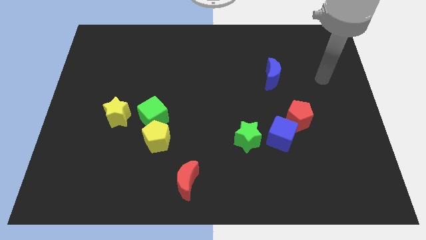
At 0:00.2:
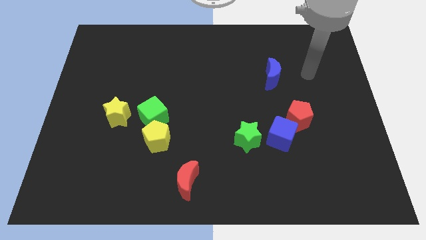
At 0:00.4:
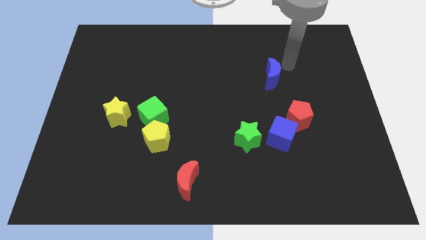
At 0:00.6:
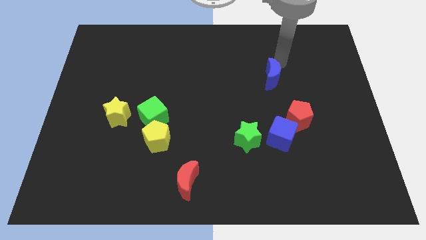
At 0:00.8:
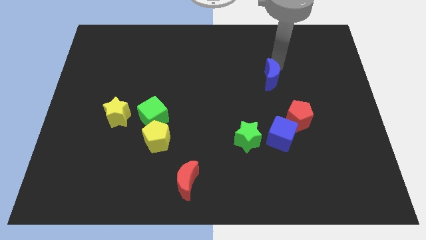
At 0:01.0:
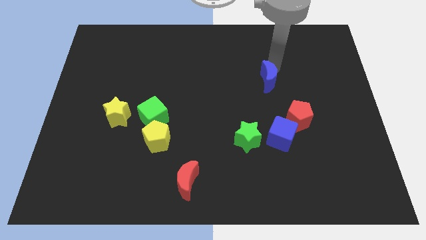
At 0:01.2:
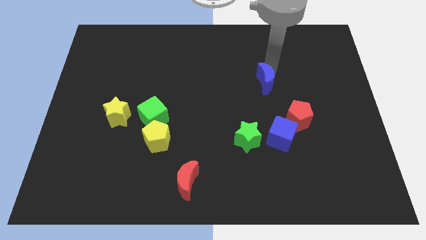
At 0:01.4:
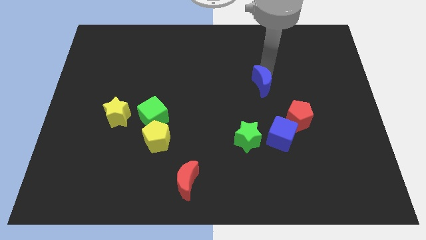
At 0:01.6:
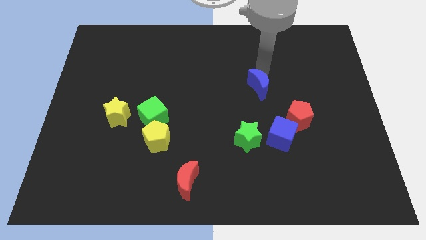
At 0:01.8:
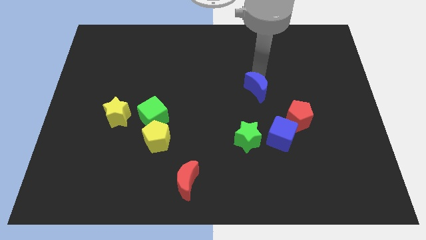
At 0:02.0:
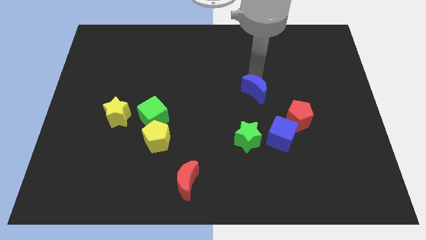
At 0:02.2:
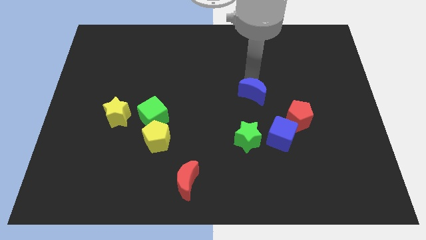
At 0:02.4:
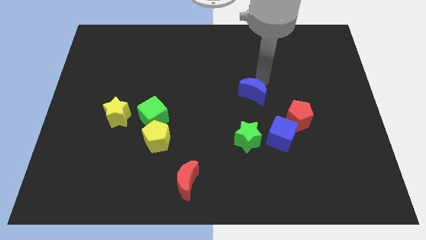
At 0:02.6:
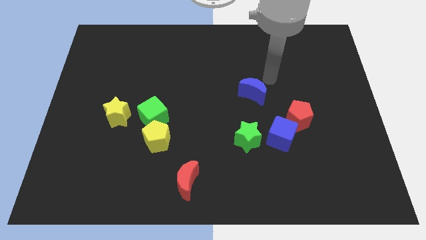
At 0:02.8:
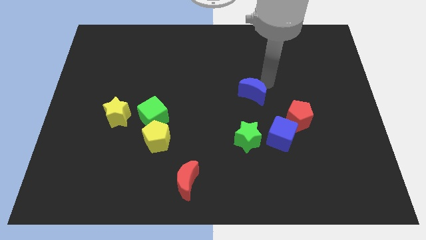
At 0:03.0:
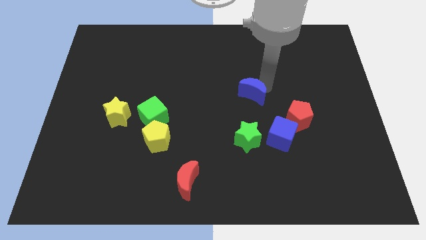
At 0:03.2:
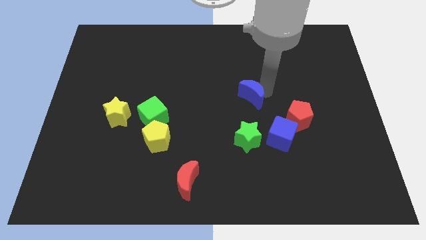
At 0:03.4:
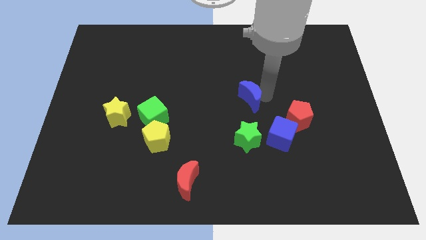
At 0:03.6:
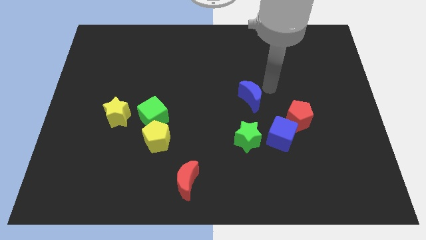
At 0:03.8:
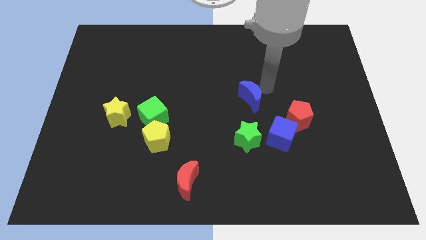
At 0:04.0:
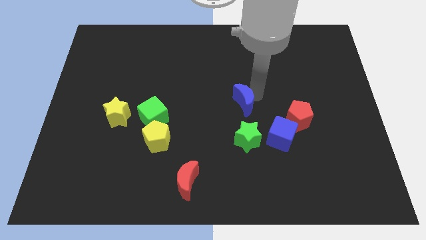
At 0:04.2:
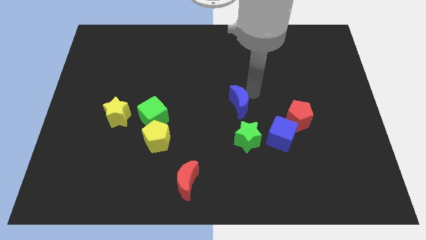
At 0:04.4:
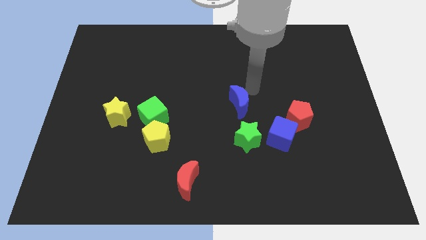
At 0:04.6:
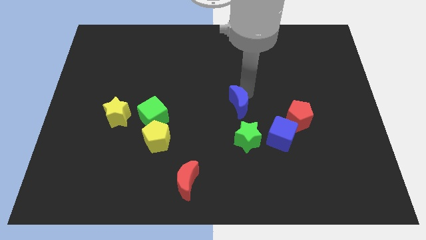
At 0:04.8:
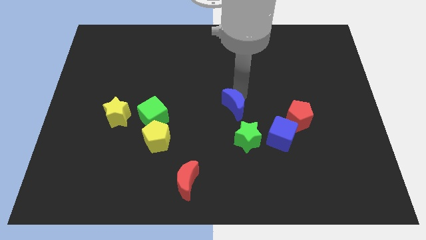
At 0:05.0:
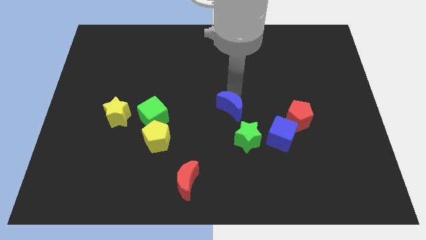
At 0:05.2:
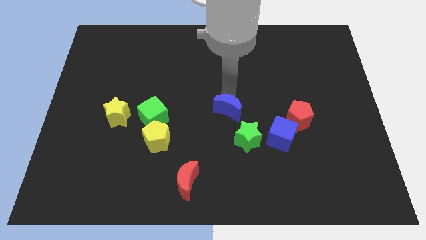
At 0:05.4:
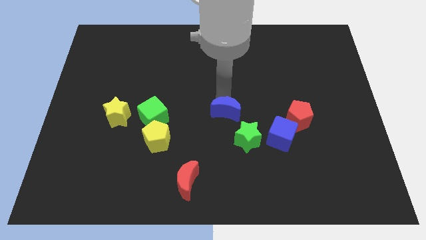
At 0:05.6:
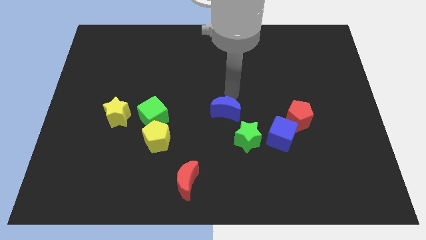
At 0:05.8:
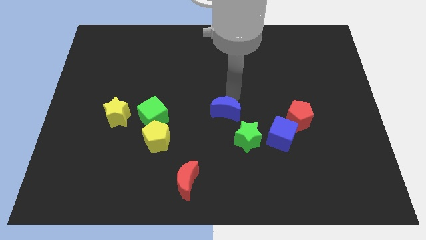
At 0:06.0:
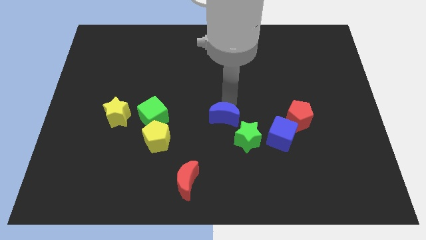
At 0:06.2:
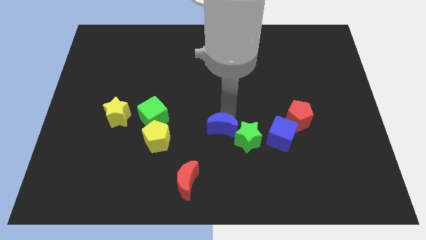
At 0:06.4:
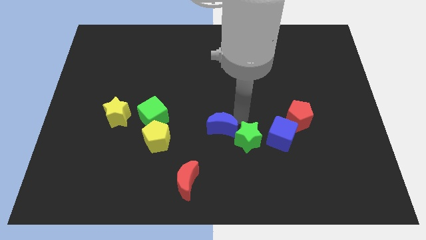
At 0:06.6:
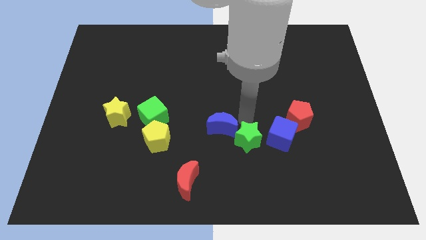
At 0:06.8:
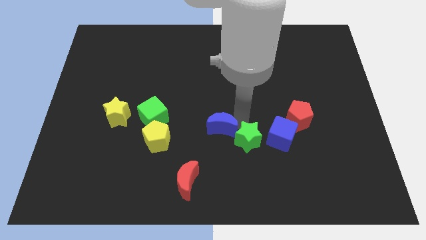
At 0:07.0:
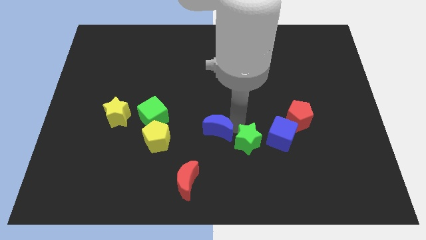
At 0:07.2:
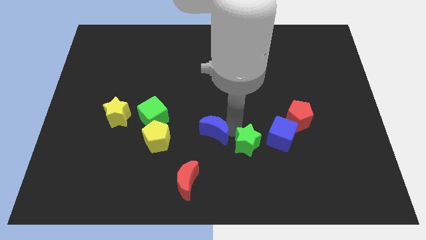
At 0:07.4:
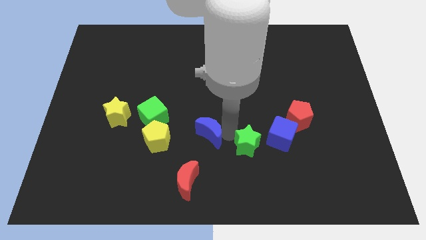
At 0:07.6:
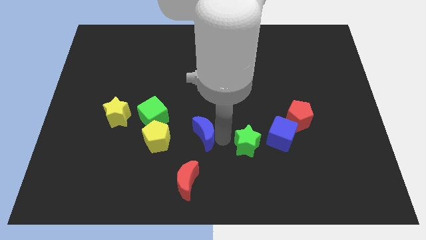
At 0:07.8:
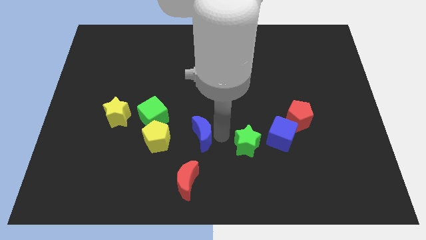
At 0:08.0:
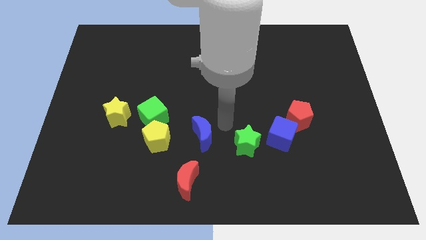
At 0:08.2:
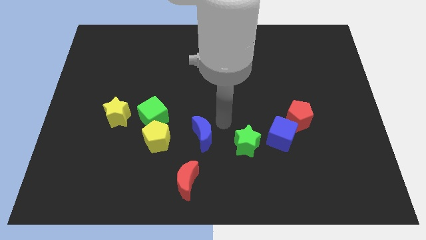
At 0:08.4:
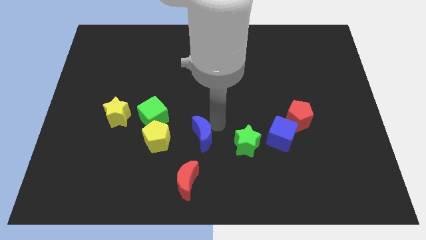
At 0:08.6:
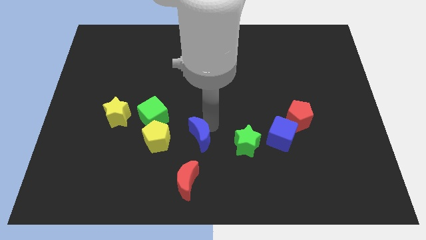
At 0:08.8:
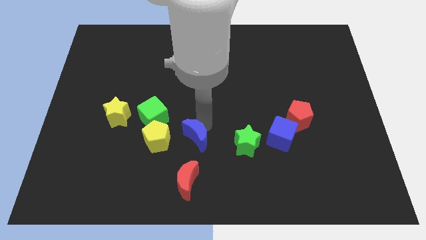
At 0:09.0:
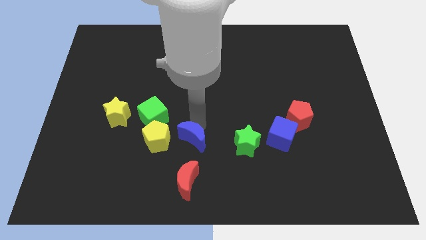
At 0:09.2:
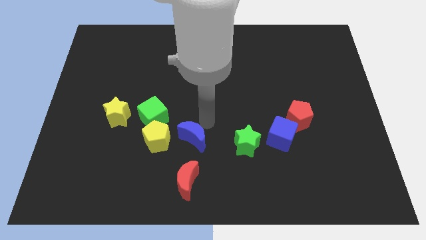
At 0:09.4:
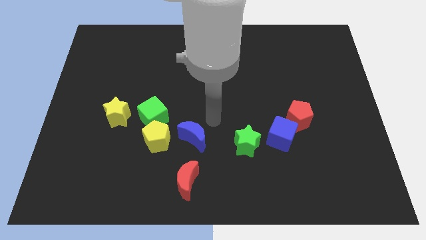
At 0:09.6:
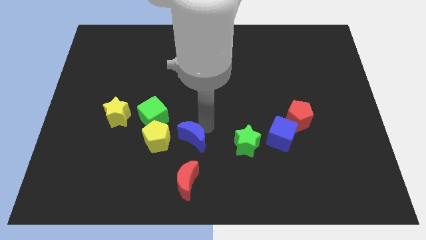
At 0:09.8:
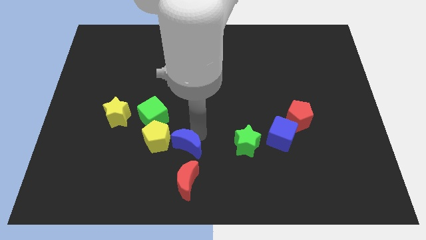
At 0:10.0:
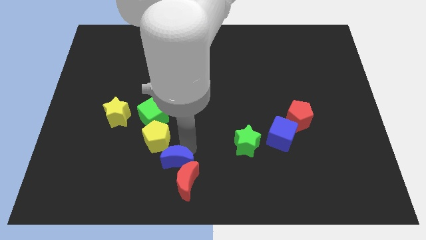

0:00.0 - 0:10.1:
put the blue moon below the yellow pentagon

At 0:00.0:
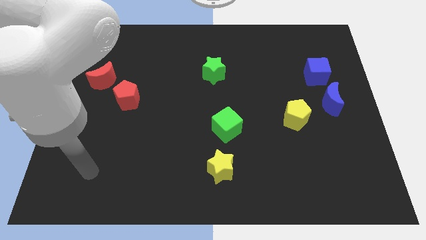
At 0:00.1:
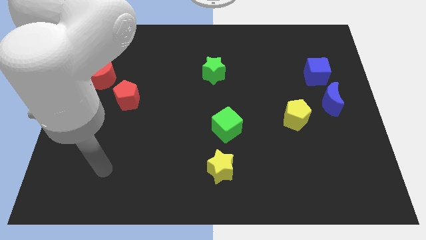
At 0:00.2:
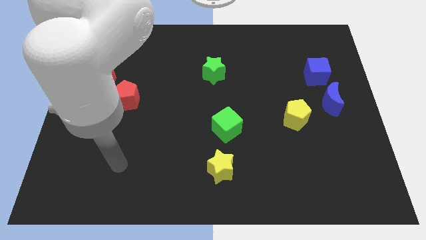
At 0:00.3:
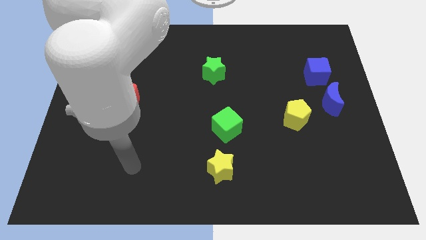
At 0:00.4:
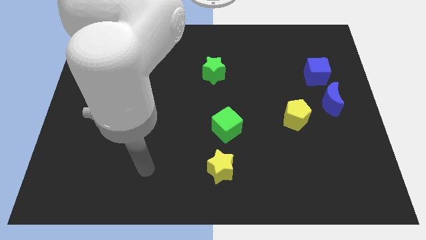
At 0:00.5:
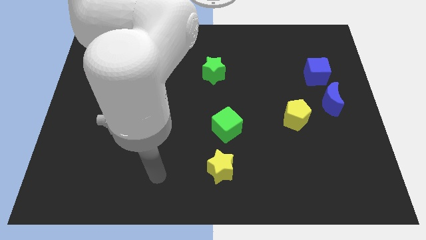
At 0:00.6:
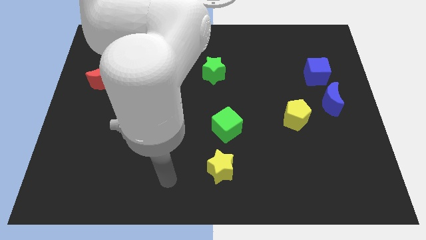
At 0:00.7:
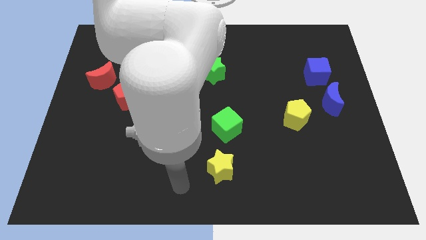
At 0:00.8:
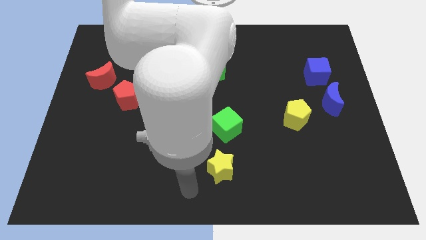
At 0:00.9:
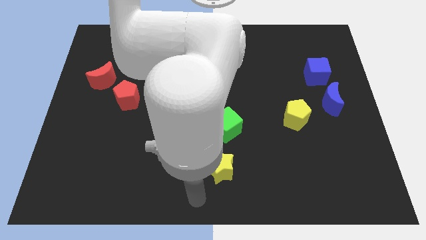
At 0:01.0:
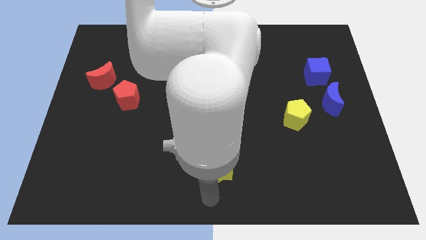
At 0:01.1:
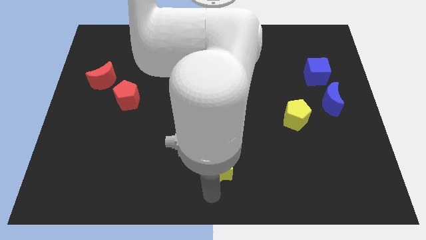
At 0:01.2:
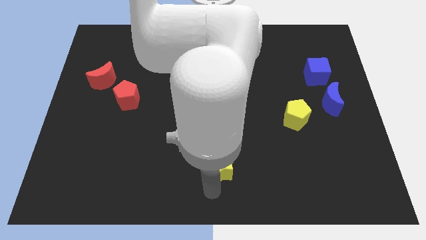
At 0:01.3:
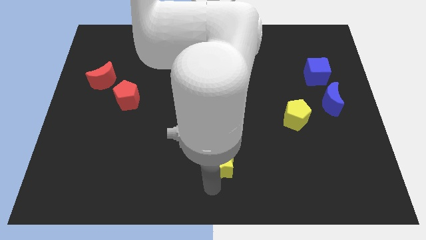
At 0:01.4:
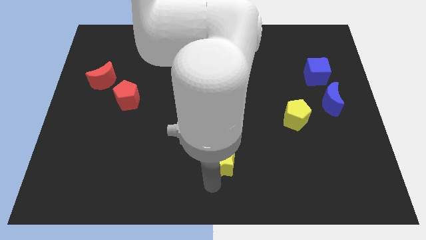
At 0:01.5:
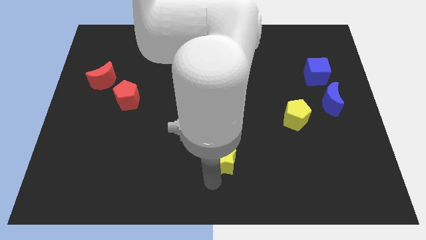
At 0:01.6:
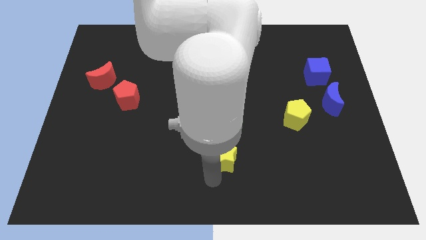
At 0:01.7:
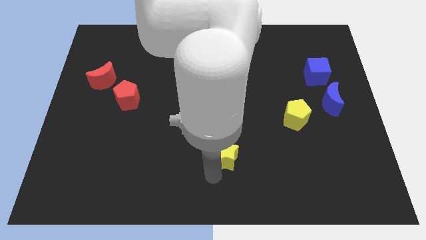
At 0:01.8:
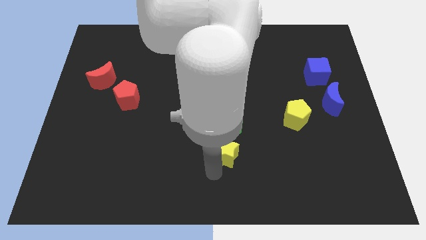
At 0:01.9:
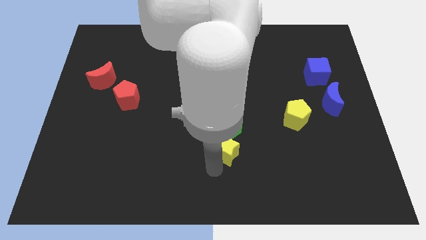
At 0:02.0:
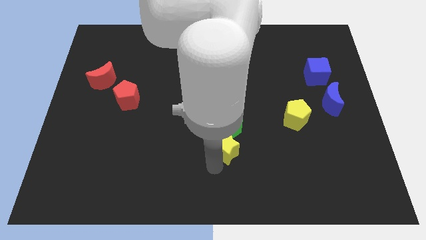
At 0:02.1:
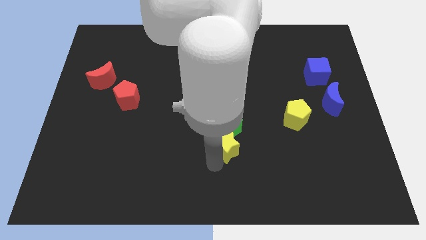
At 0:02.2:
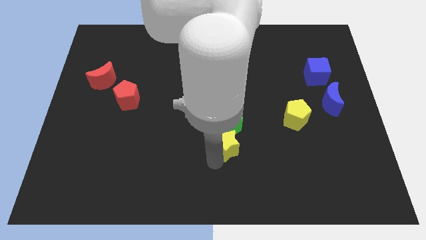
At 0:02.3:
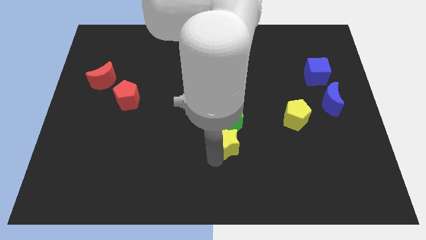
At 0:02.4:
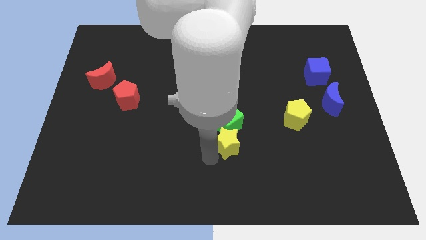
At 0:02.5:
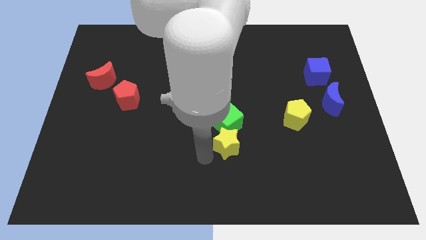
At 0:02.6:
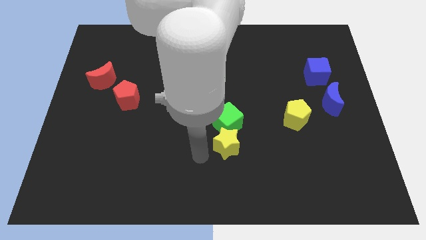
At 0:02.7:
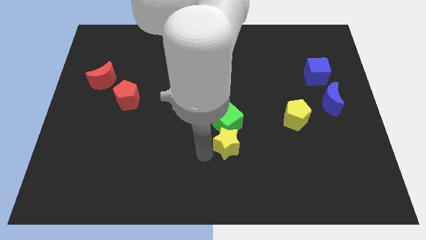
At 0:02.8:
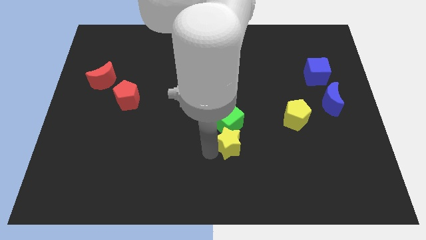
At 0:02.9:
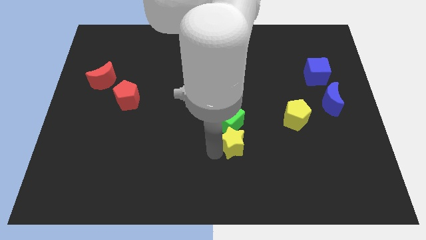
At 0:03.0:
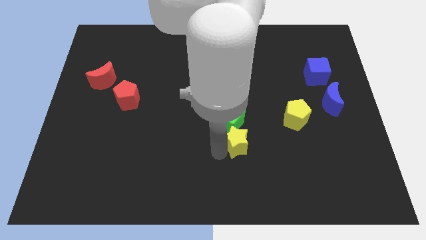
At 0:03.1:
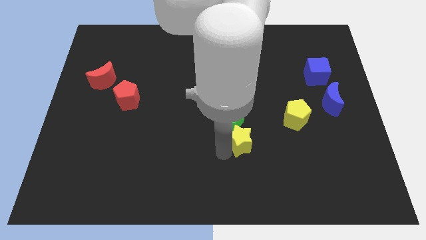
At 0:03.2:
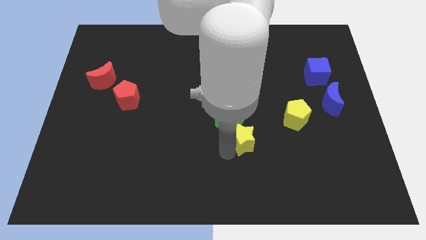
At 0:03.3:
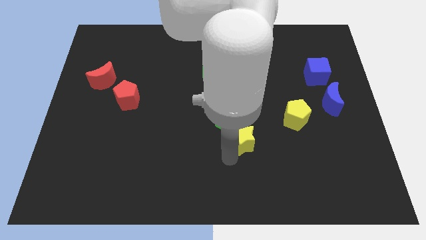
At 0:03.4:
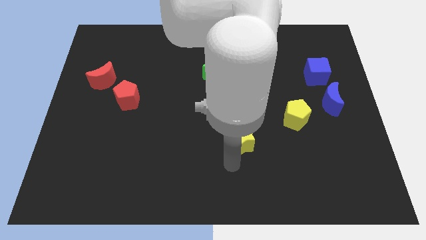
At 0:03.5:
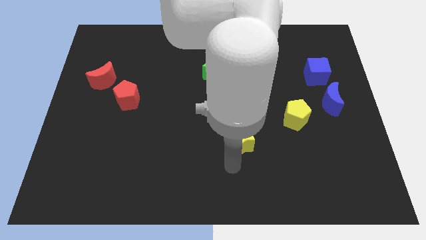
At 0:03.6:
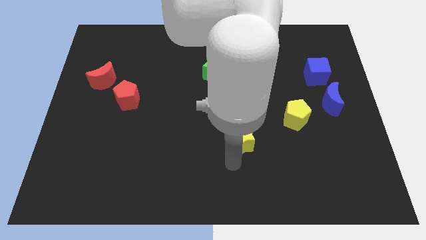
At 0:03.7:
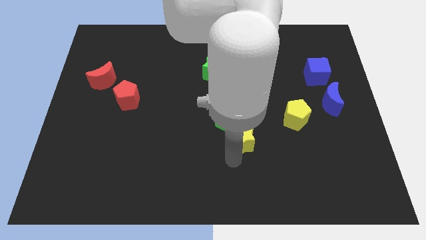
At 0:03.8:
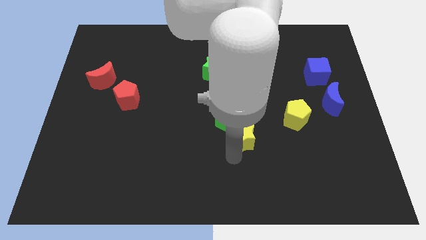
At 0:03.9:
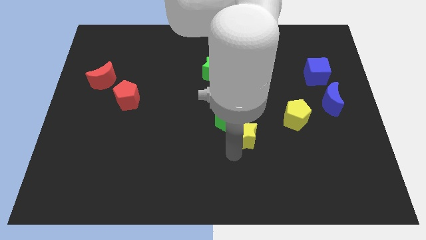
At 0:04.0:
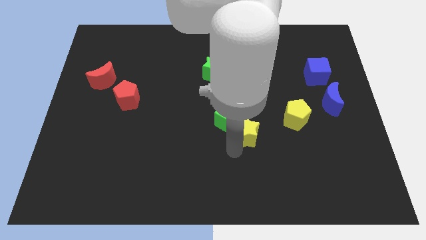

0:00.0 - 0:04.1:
push the yellow star to the left of the yellow pentagon
